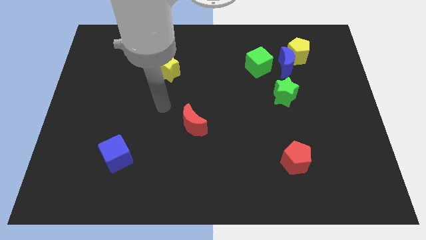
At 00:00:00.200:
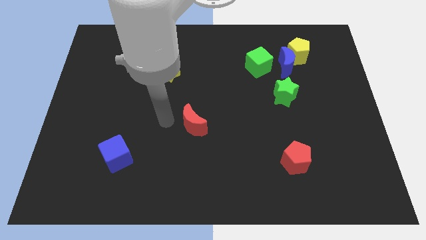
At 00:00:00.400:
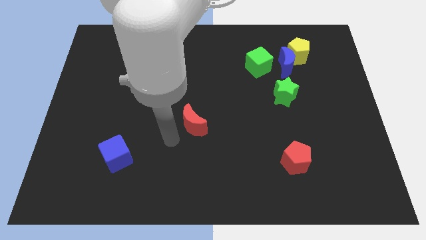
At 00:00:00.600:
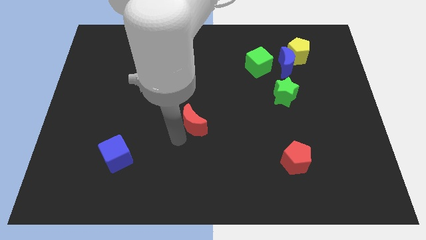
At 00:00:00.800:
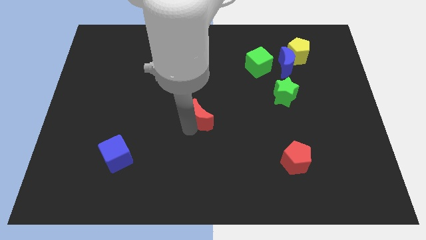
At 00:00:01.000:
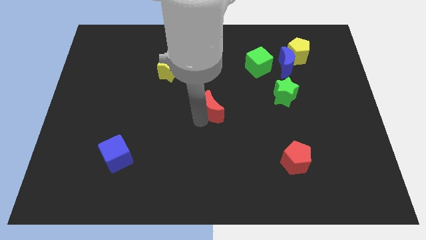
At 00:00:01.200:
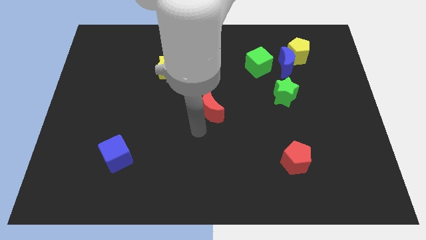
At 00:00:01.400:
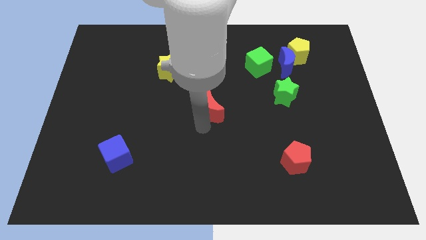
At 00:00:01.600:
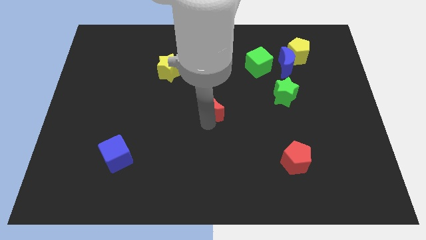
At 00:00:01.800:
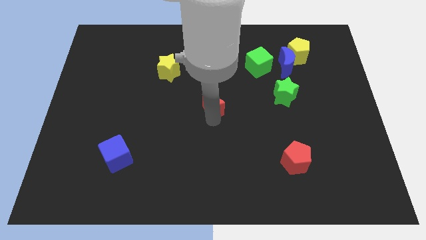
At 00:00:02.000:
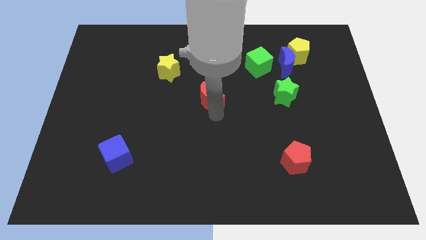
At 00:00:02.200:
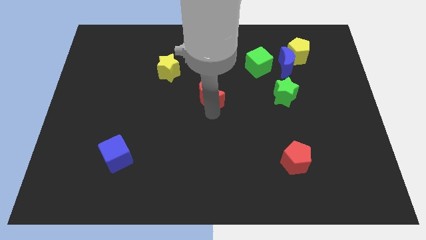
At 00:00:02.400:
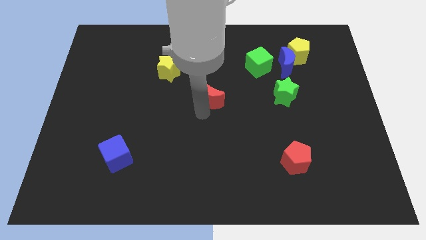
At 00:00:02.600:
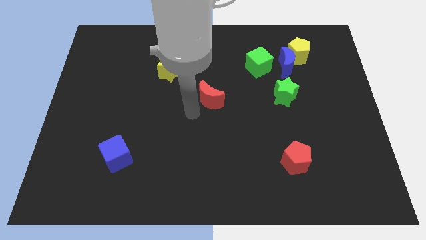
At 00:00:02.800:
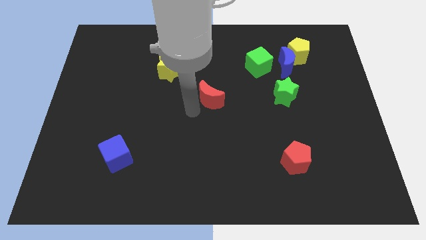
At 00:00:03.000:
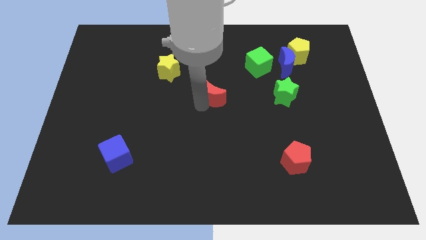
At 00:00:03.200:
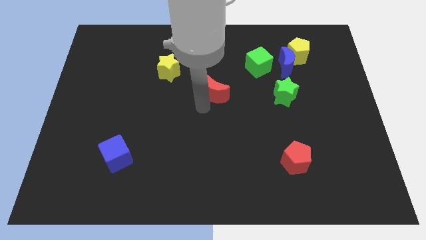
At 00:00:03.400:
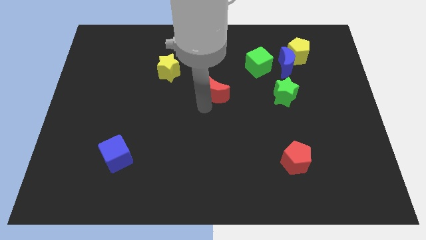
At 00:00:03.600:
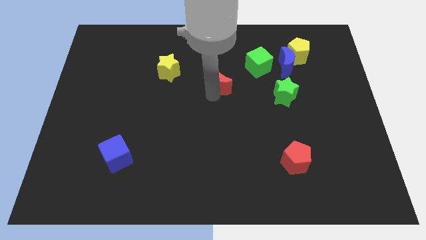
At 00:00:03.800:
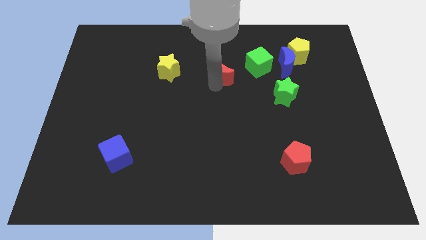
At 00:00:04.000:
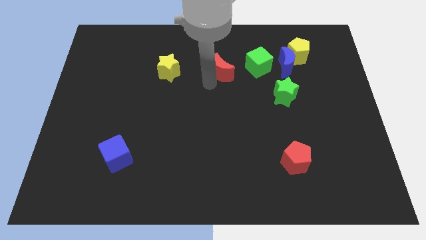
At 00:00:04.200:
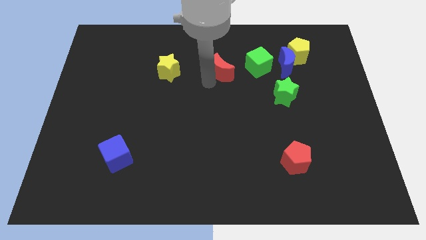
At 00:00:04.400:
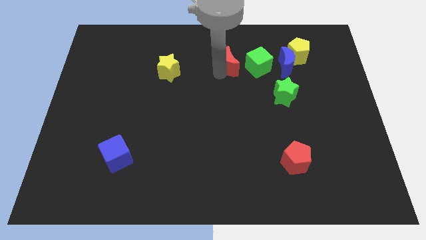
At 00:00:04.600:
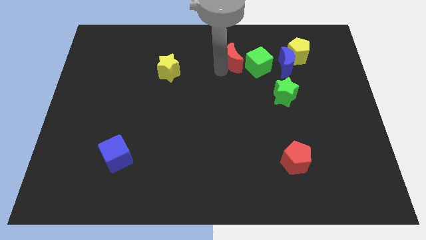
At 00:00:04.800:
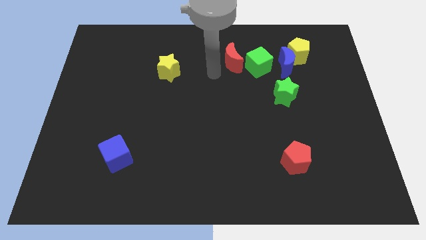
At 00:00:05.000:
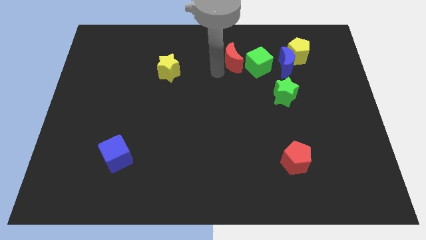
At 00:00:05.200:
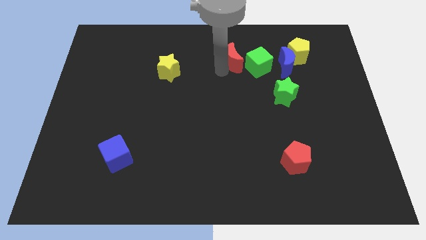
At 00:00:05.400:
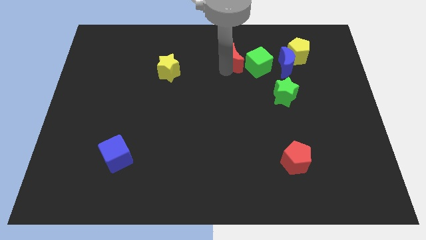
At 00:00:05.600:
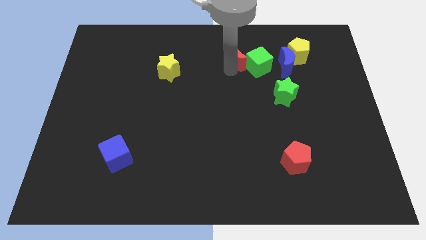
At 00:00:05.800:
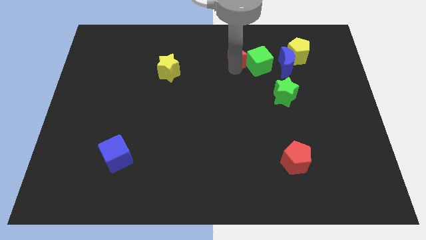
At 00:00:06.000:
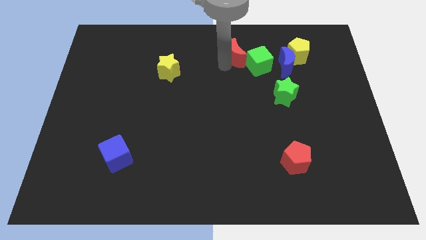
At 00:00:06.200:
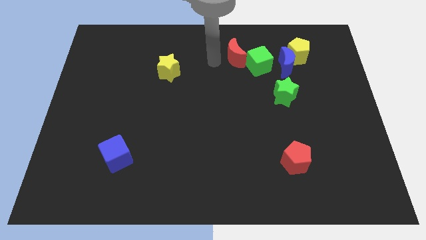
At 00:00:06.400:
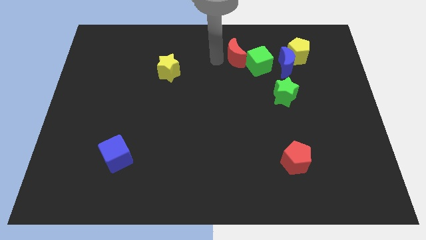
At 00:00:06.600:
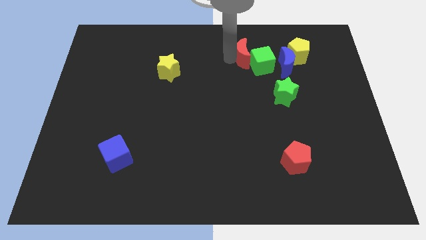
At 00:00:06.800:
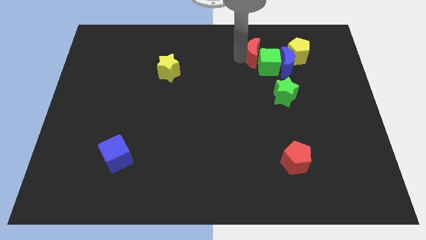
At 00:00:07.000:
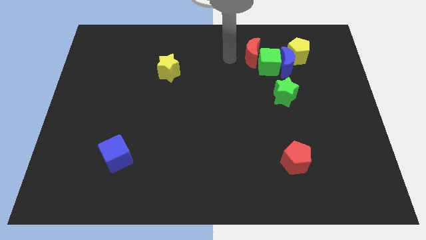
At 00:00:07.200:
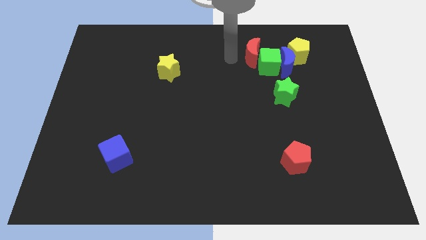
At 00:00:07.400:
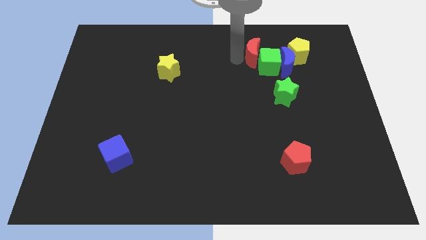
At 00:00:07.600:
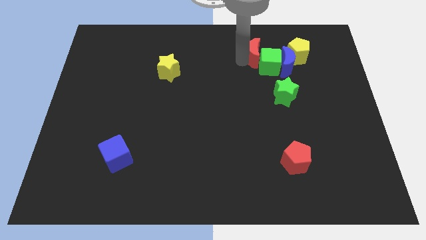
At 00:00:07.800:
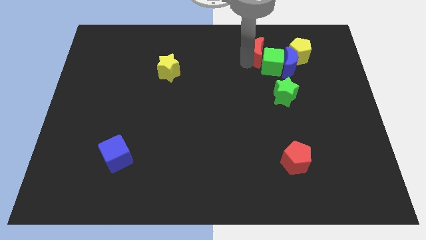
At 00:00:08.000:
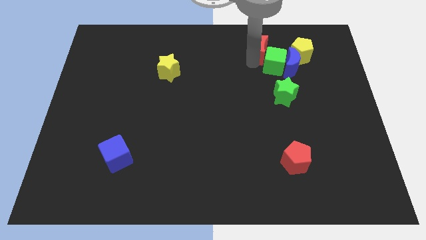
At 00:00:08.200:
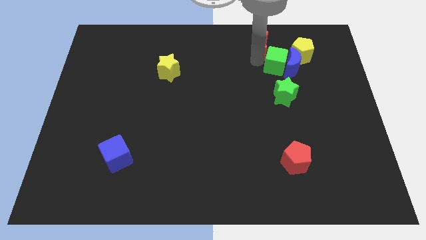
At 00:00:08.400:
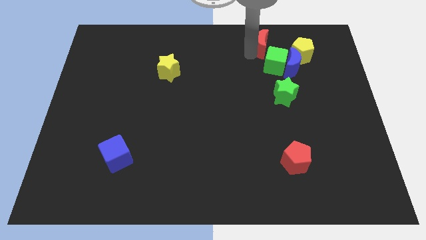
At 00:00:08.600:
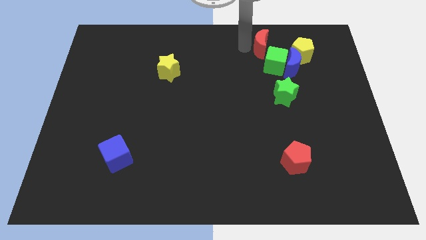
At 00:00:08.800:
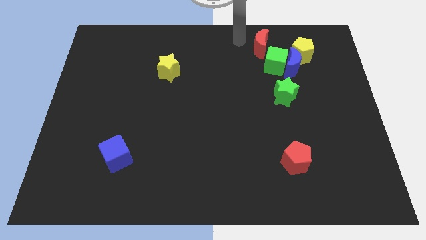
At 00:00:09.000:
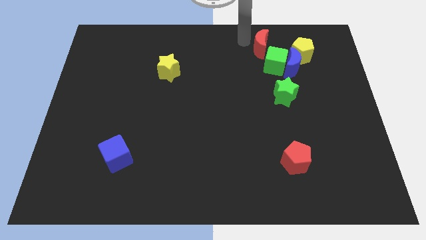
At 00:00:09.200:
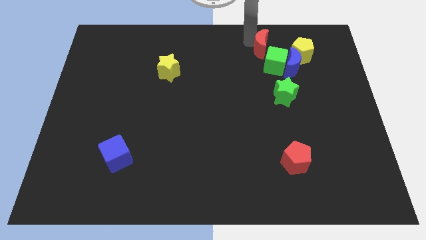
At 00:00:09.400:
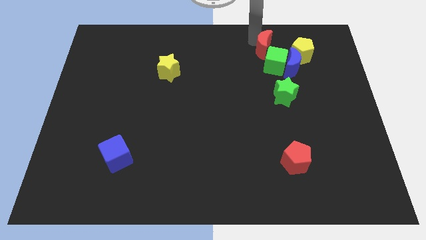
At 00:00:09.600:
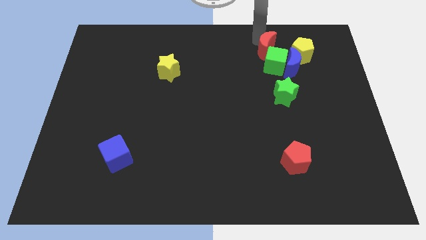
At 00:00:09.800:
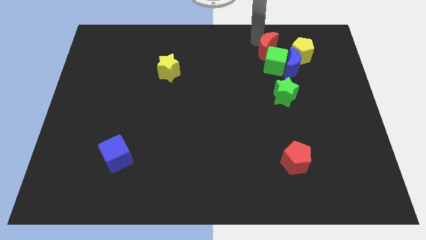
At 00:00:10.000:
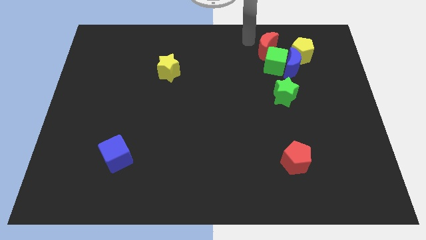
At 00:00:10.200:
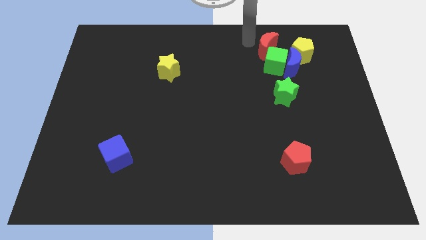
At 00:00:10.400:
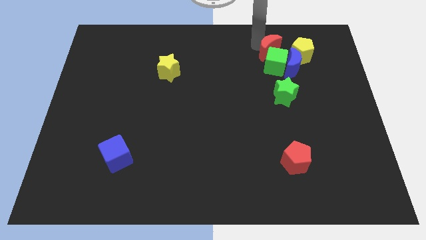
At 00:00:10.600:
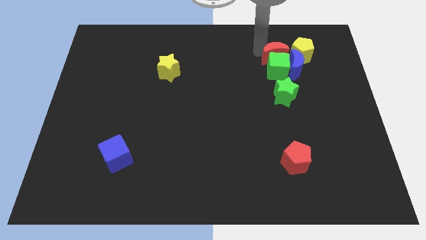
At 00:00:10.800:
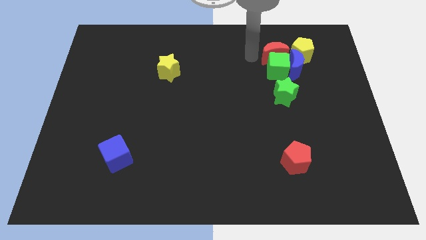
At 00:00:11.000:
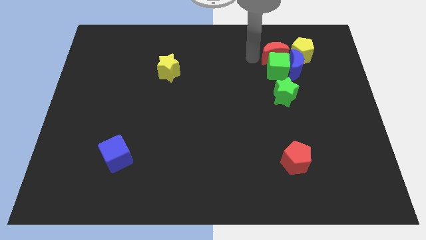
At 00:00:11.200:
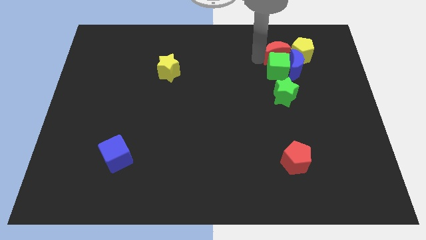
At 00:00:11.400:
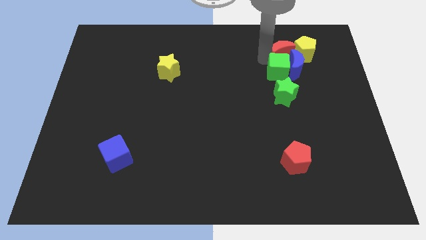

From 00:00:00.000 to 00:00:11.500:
move the red moon towards the yellow pentagon

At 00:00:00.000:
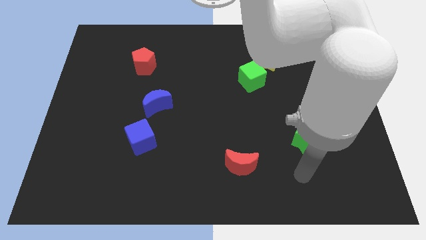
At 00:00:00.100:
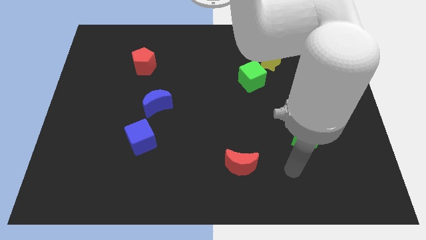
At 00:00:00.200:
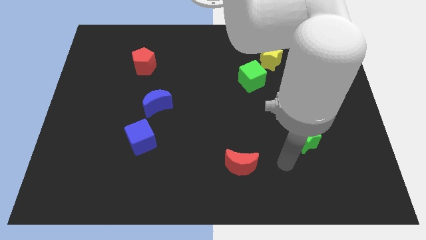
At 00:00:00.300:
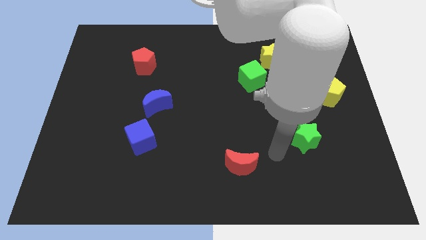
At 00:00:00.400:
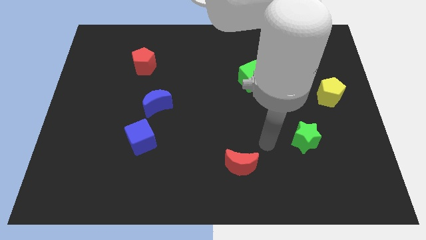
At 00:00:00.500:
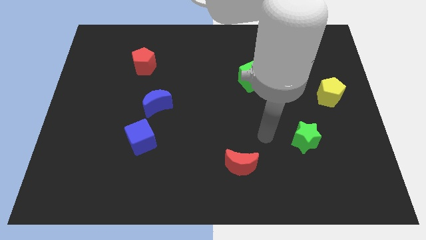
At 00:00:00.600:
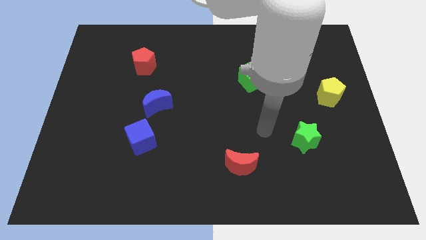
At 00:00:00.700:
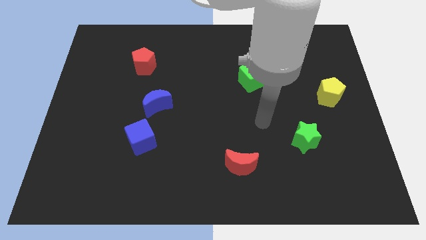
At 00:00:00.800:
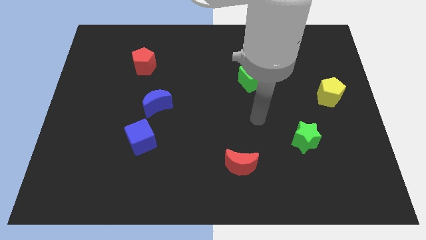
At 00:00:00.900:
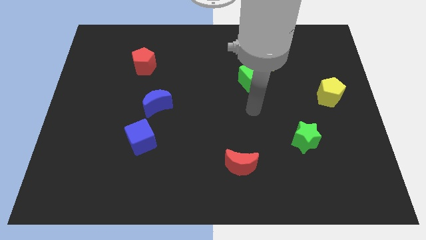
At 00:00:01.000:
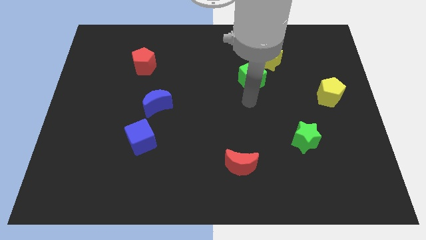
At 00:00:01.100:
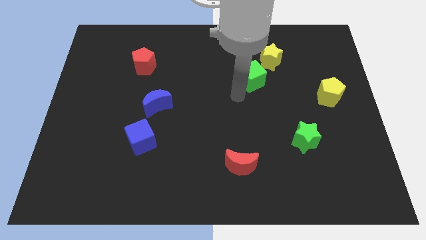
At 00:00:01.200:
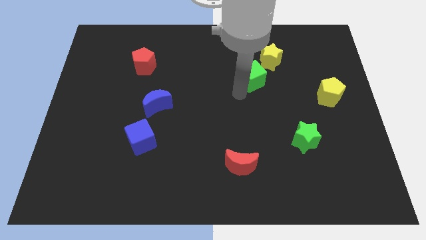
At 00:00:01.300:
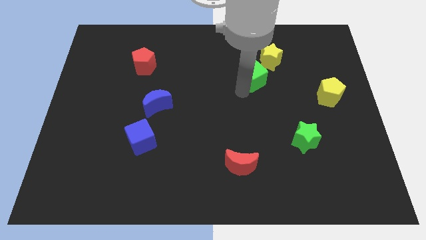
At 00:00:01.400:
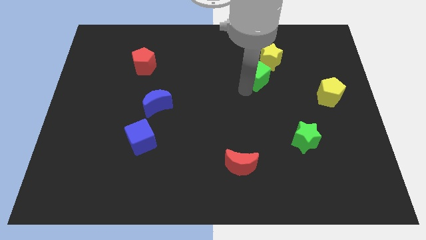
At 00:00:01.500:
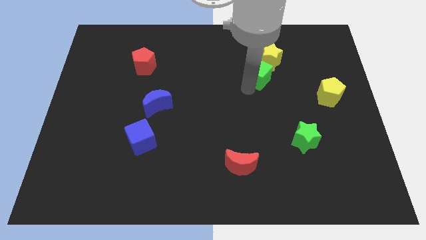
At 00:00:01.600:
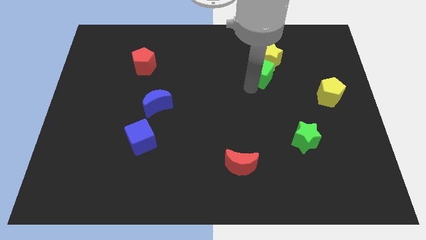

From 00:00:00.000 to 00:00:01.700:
push the green cube next to the yellow star

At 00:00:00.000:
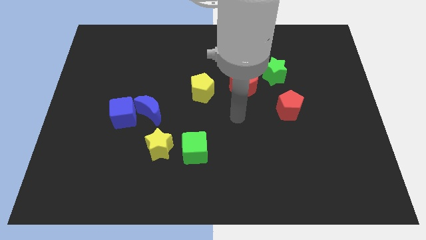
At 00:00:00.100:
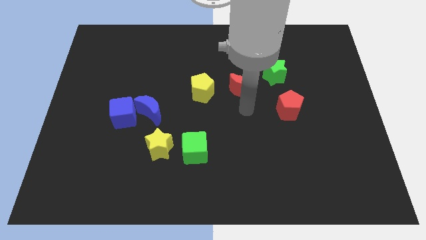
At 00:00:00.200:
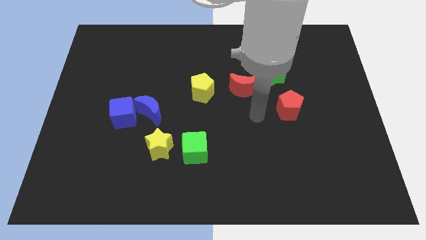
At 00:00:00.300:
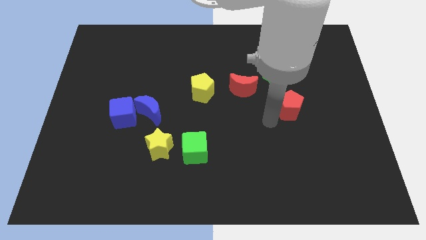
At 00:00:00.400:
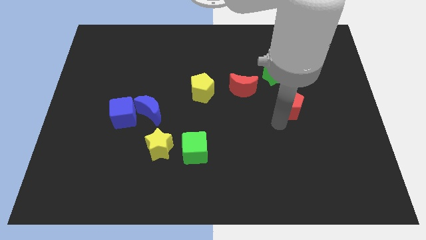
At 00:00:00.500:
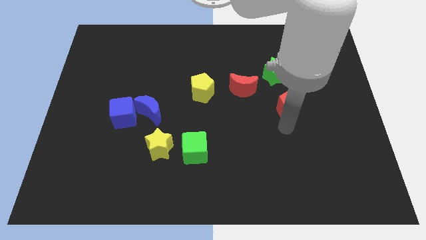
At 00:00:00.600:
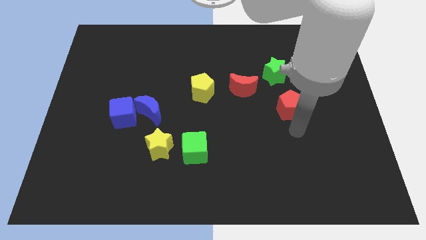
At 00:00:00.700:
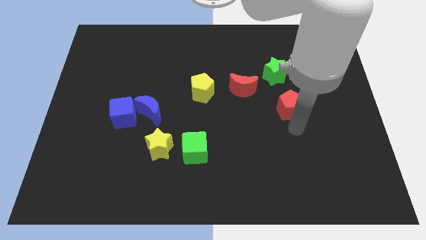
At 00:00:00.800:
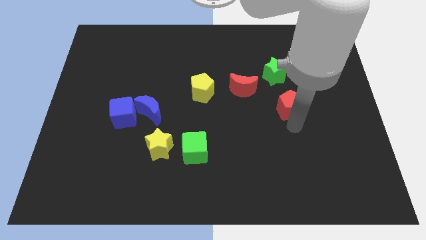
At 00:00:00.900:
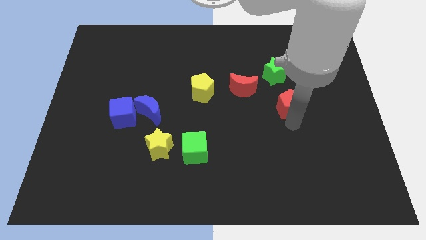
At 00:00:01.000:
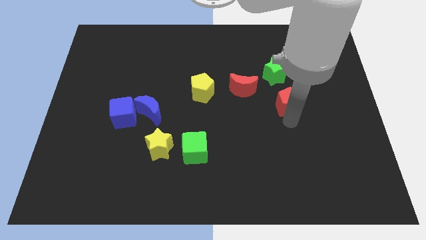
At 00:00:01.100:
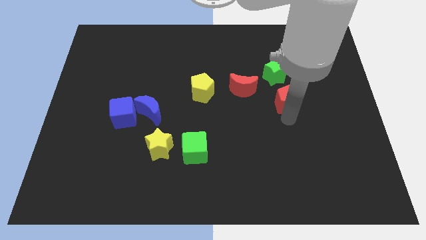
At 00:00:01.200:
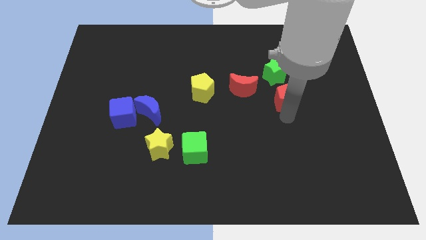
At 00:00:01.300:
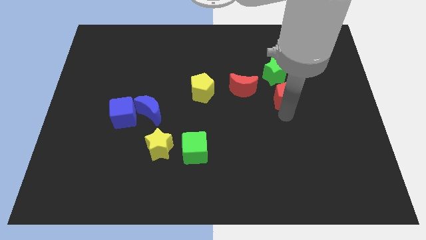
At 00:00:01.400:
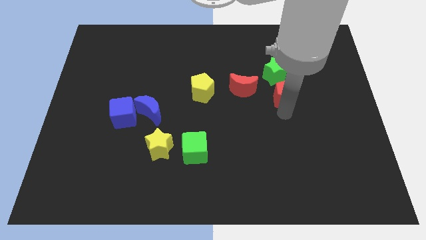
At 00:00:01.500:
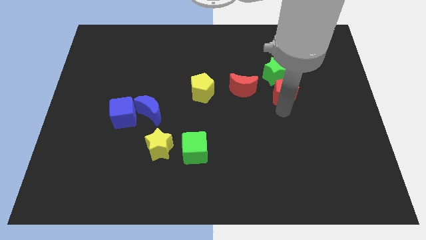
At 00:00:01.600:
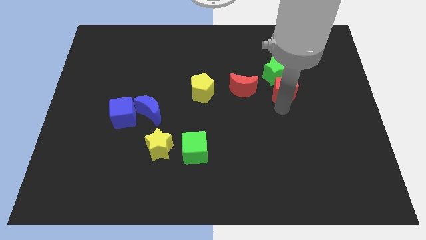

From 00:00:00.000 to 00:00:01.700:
put the red pentagon towards the green star
